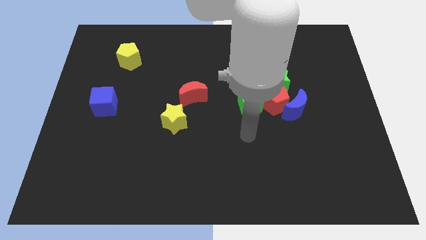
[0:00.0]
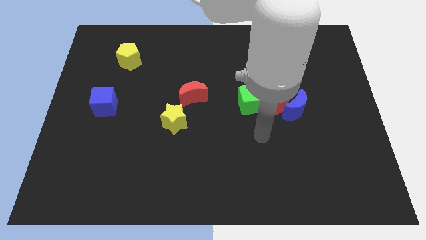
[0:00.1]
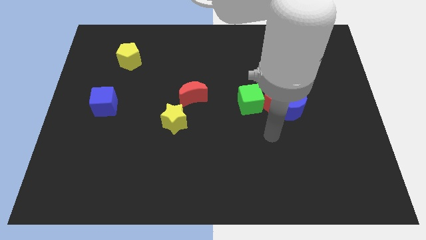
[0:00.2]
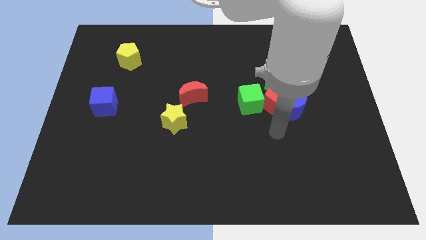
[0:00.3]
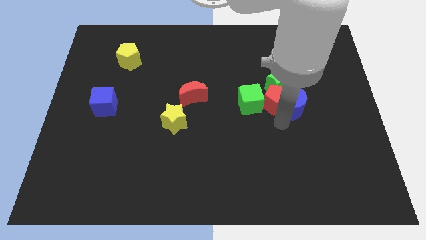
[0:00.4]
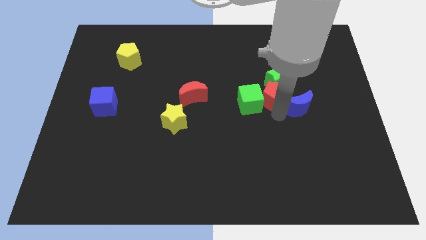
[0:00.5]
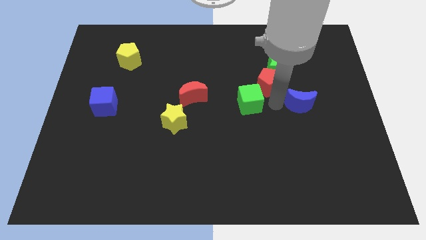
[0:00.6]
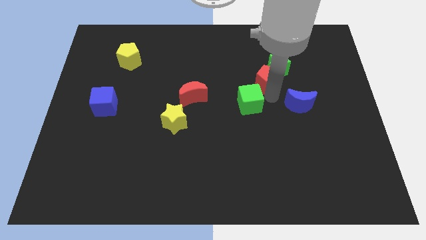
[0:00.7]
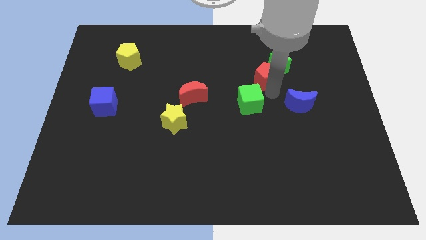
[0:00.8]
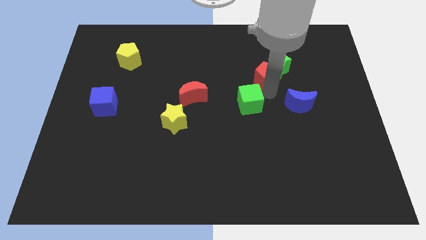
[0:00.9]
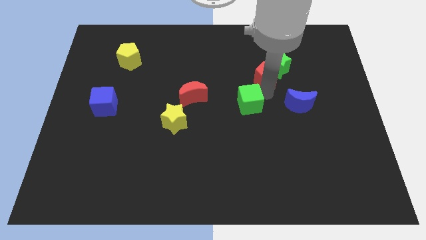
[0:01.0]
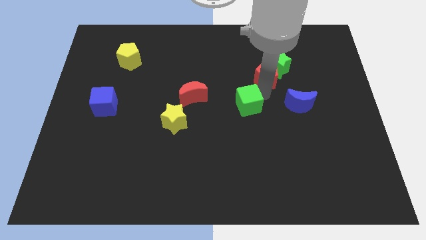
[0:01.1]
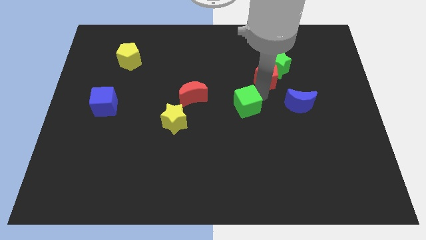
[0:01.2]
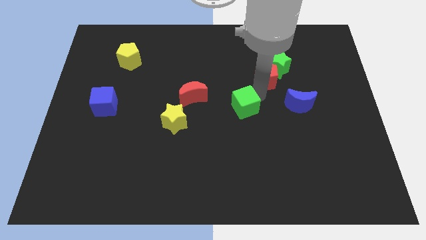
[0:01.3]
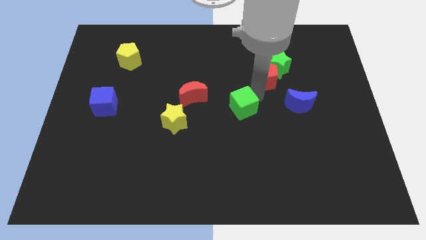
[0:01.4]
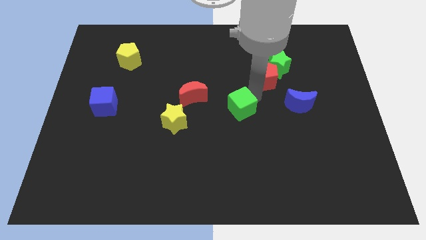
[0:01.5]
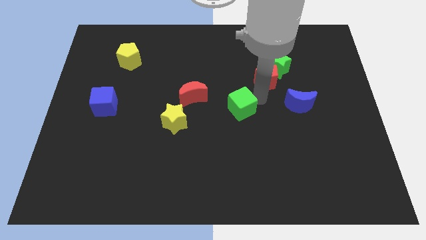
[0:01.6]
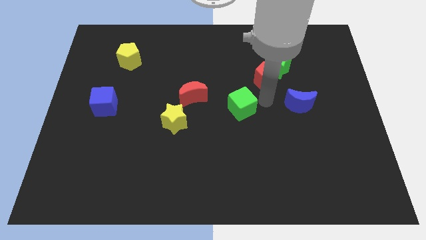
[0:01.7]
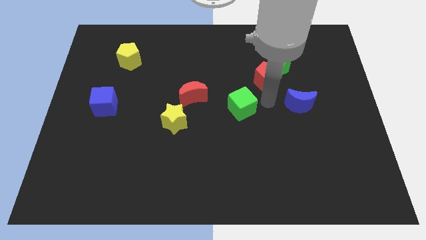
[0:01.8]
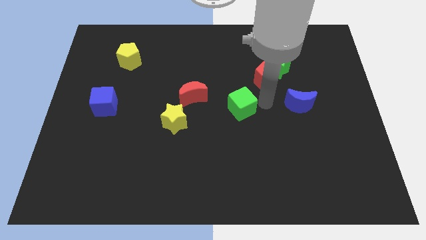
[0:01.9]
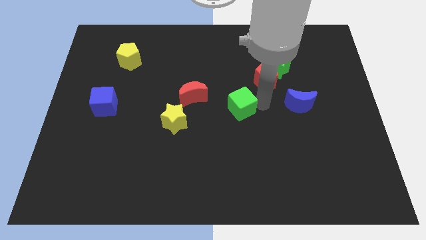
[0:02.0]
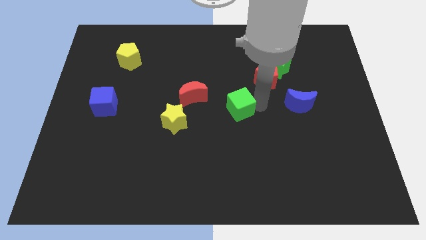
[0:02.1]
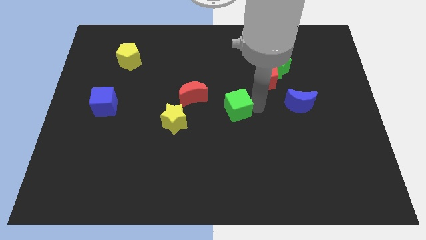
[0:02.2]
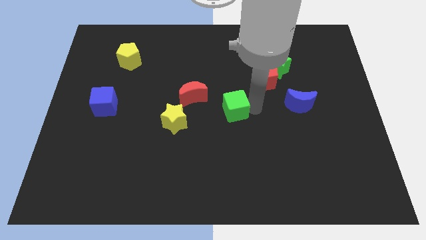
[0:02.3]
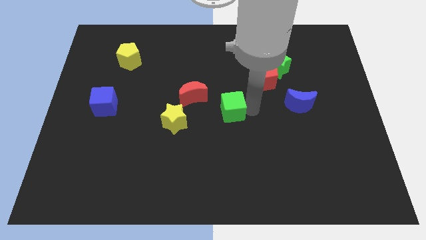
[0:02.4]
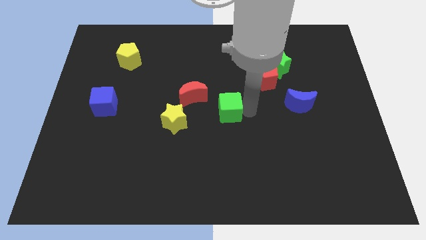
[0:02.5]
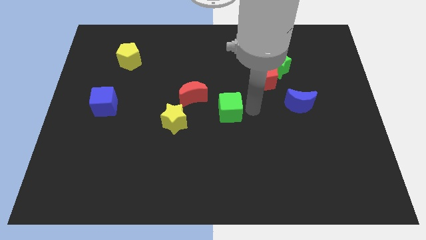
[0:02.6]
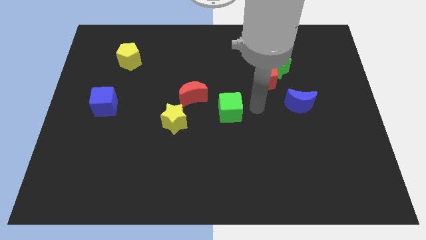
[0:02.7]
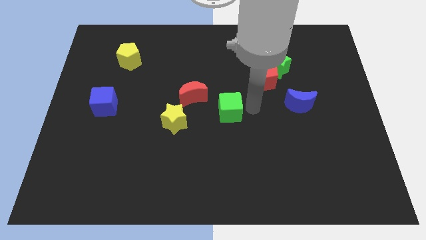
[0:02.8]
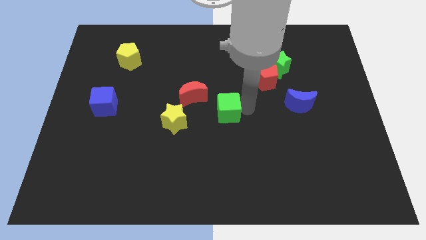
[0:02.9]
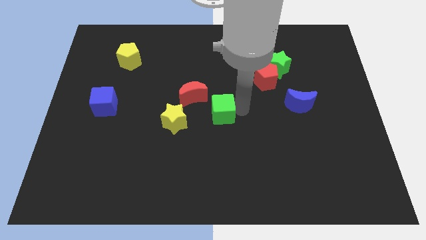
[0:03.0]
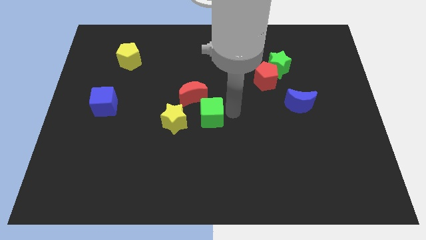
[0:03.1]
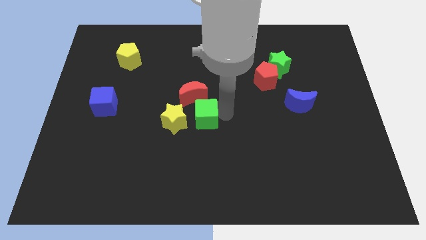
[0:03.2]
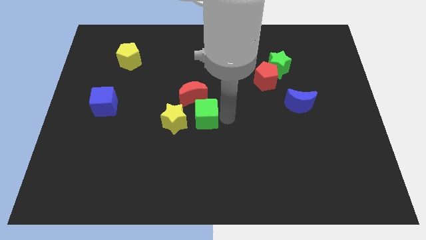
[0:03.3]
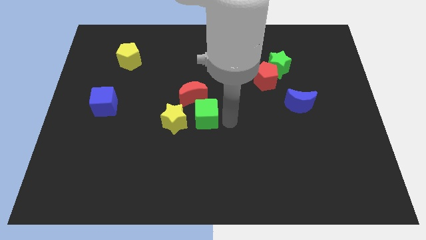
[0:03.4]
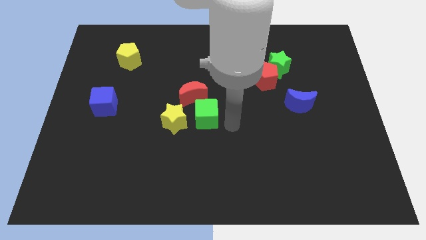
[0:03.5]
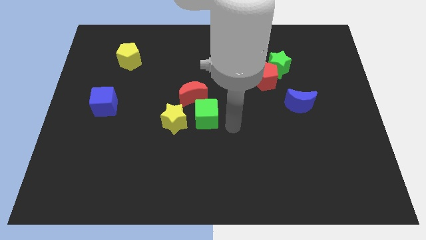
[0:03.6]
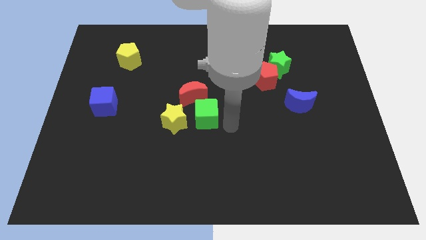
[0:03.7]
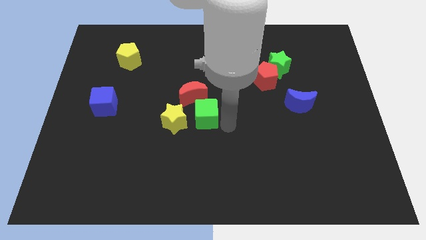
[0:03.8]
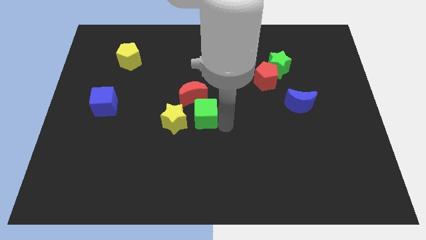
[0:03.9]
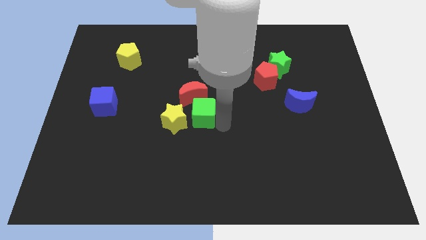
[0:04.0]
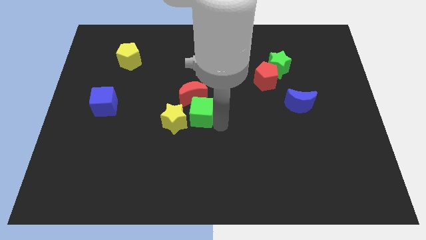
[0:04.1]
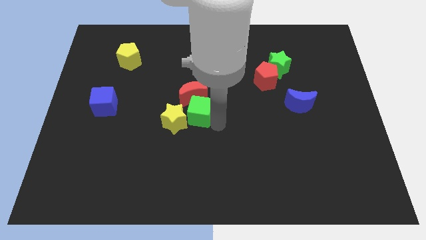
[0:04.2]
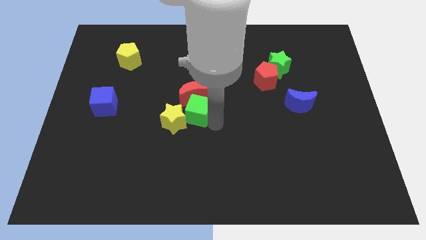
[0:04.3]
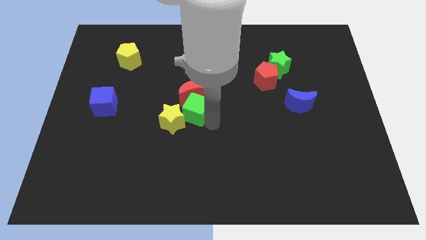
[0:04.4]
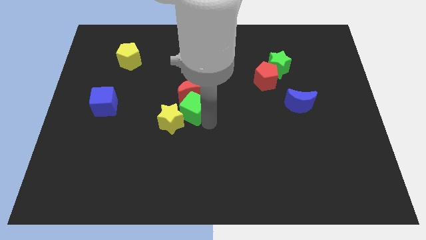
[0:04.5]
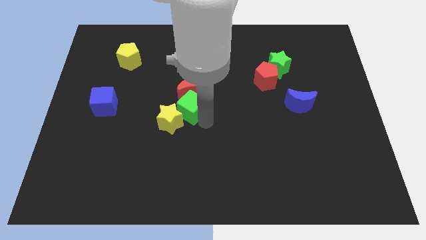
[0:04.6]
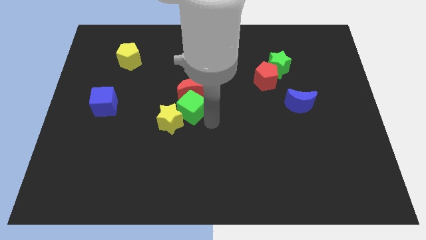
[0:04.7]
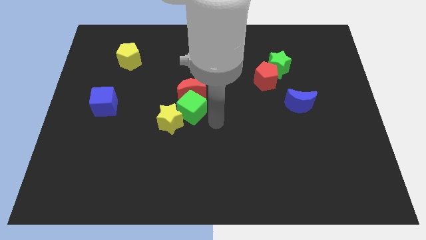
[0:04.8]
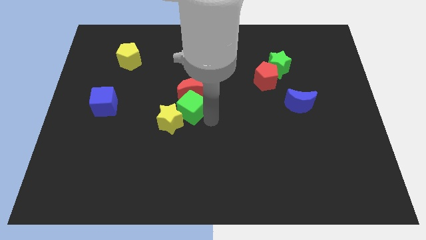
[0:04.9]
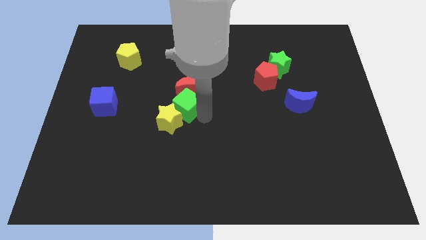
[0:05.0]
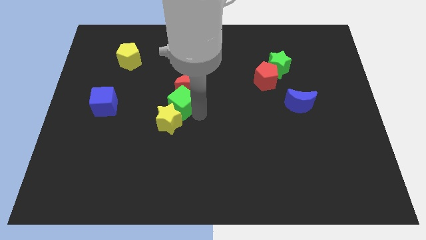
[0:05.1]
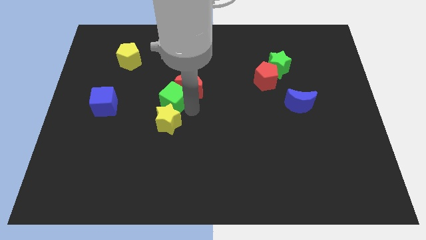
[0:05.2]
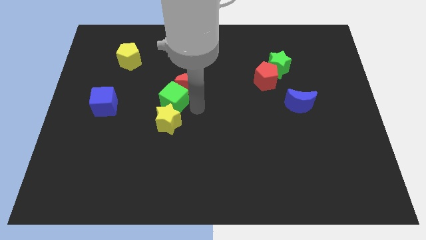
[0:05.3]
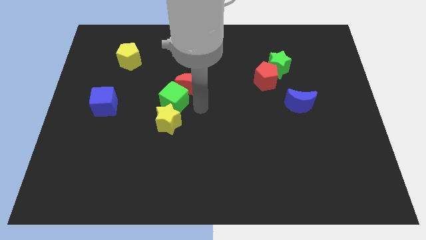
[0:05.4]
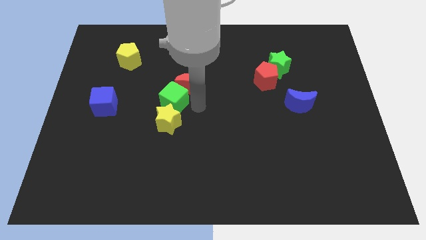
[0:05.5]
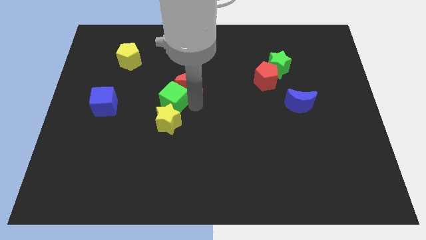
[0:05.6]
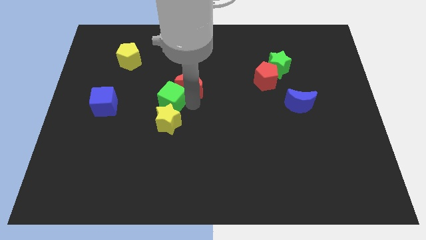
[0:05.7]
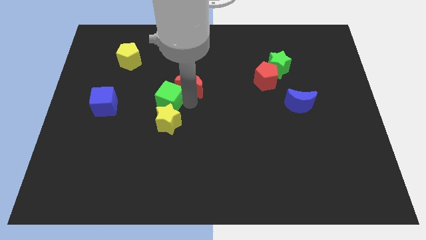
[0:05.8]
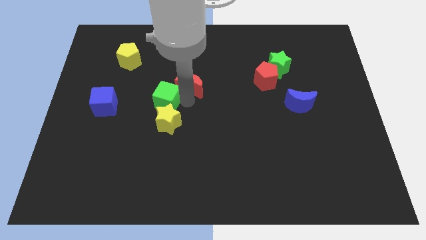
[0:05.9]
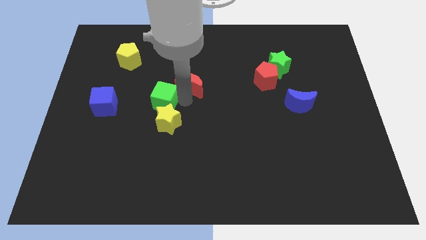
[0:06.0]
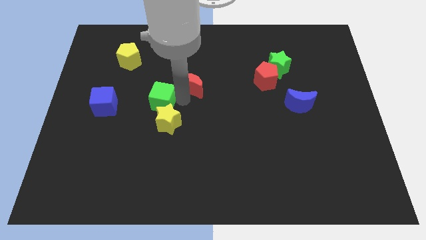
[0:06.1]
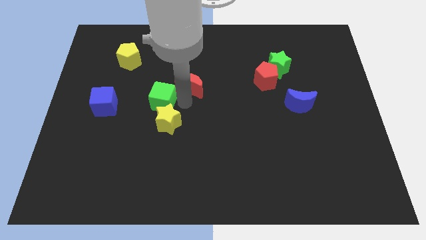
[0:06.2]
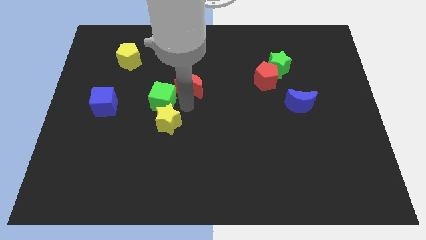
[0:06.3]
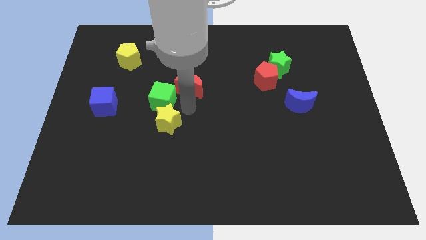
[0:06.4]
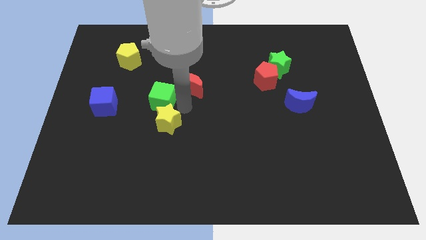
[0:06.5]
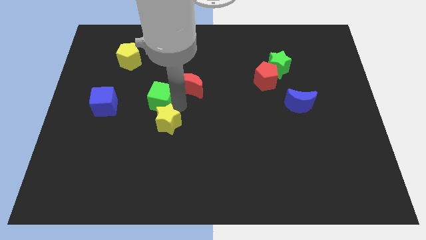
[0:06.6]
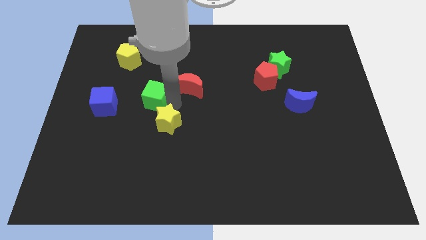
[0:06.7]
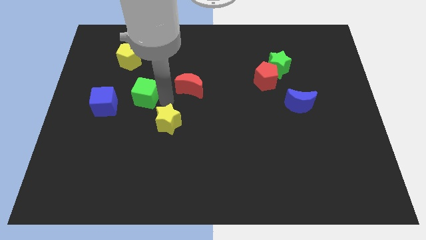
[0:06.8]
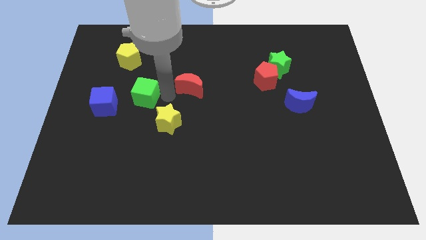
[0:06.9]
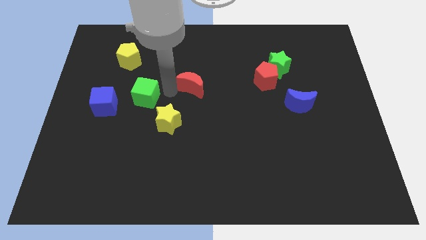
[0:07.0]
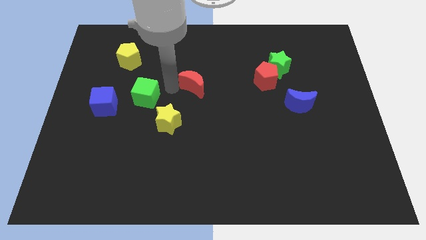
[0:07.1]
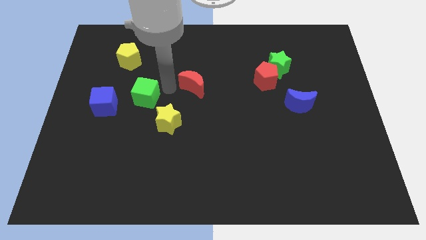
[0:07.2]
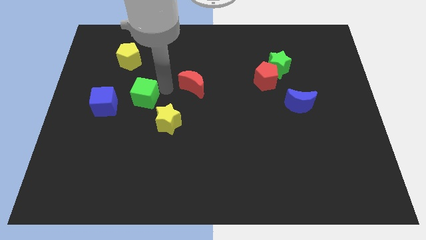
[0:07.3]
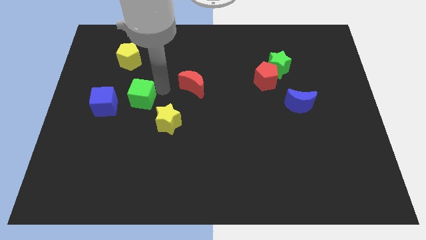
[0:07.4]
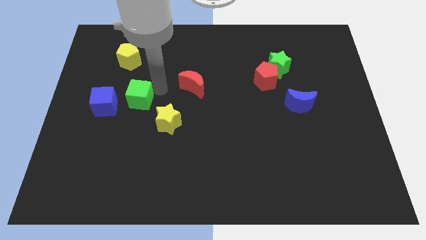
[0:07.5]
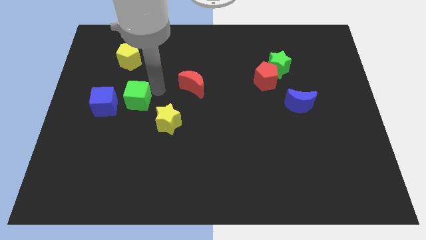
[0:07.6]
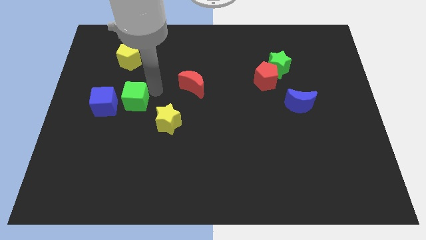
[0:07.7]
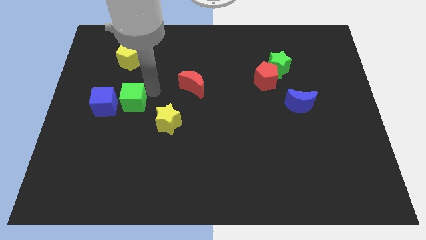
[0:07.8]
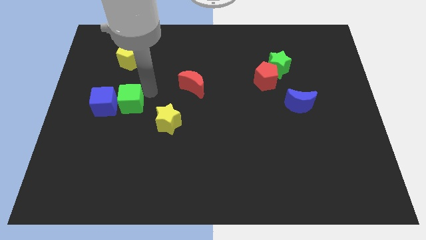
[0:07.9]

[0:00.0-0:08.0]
move the green cube to the blue cube
